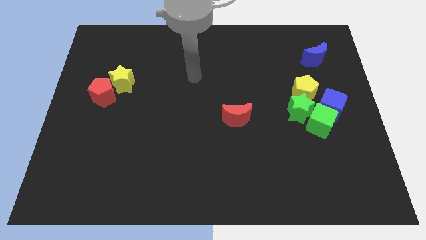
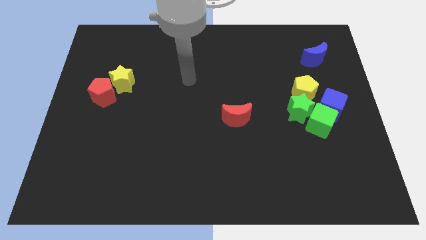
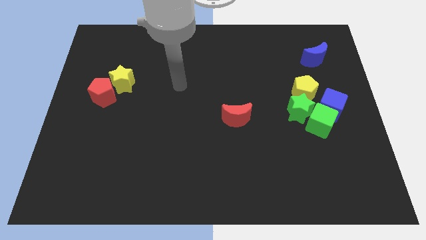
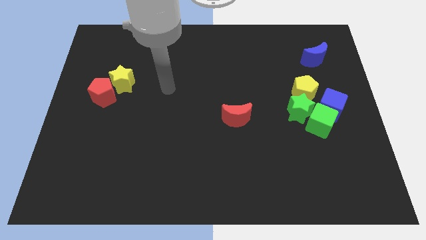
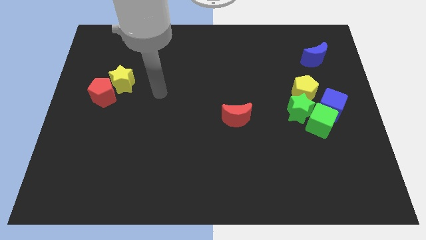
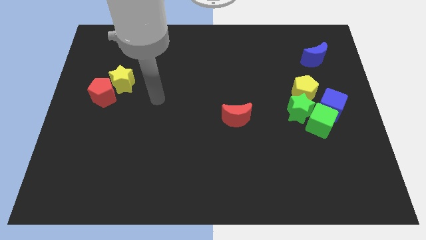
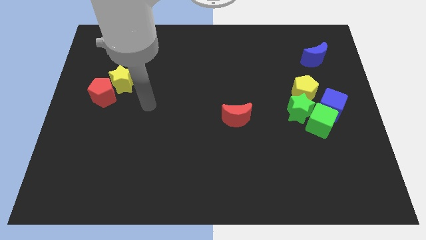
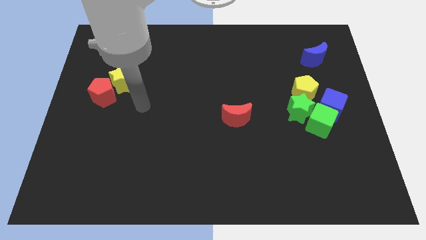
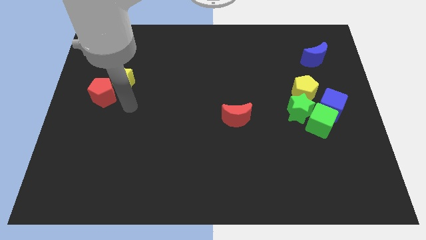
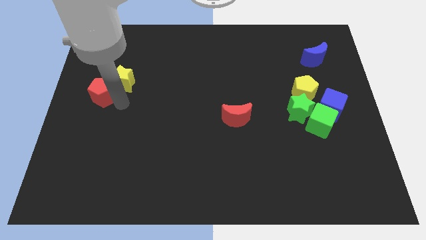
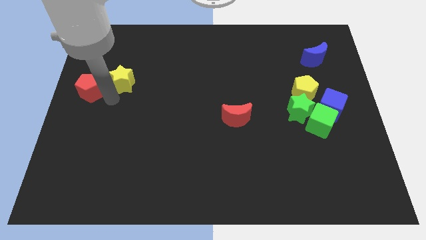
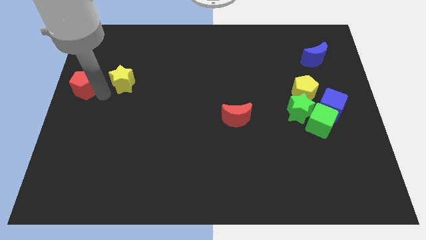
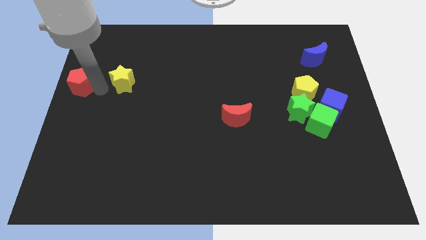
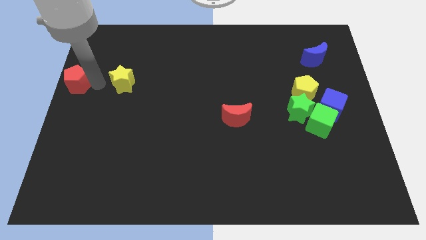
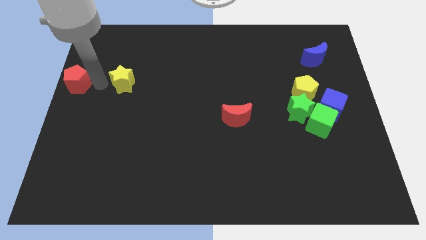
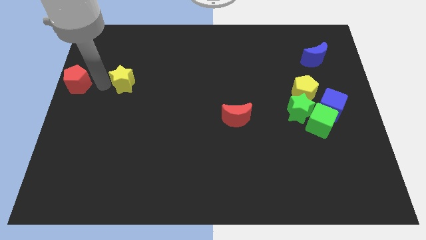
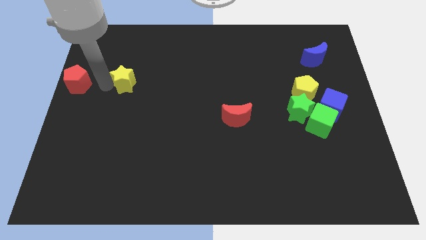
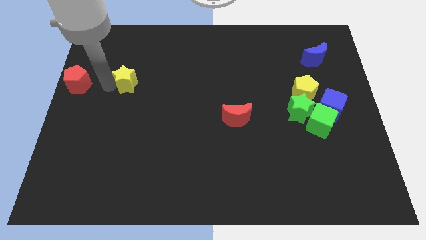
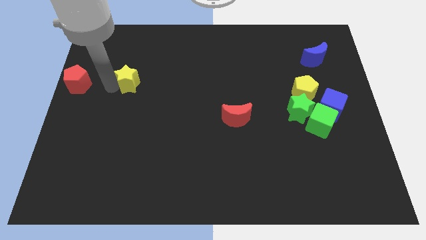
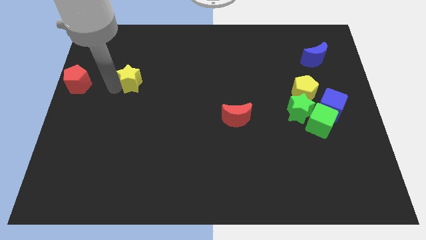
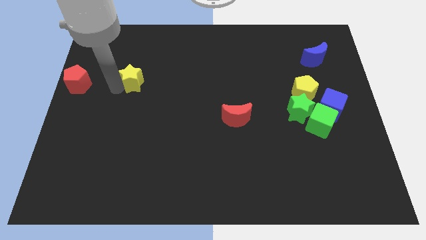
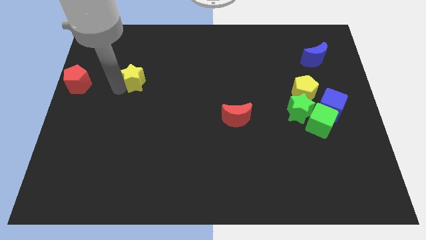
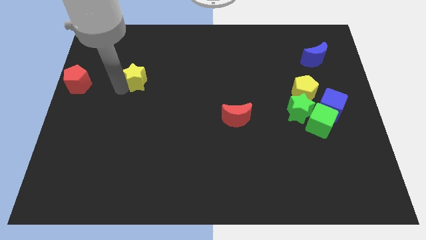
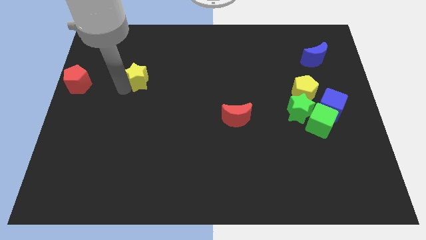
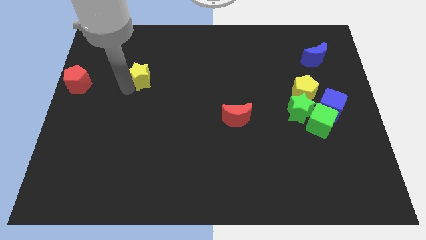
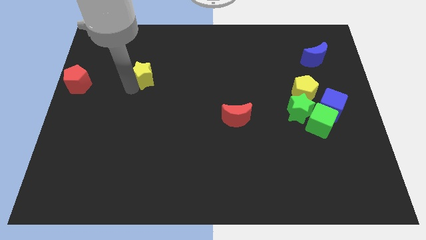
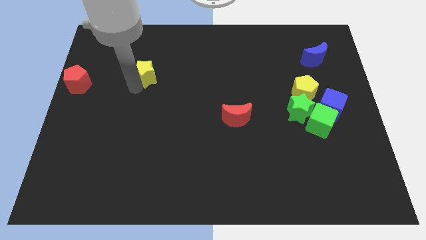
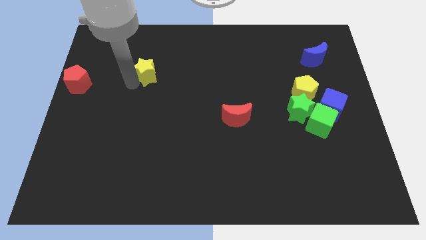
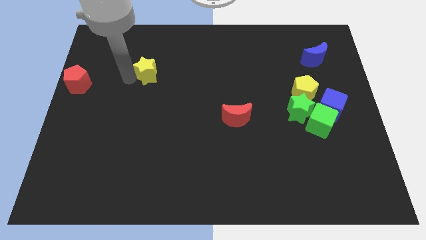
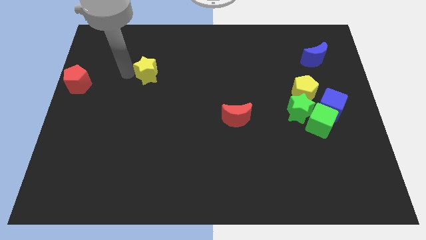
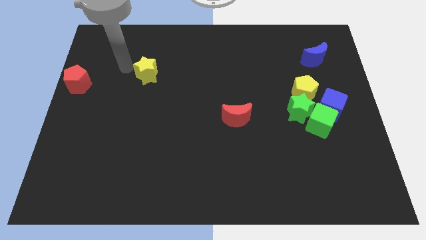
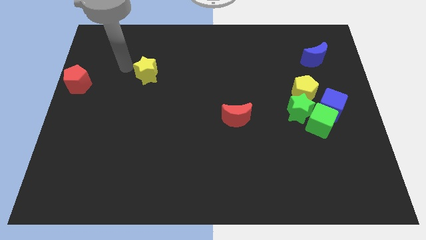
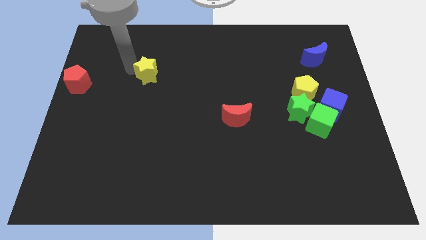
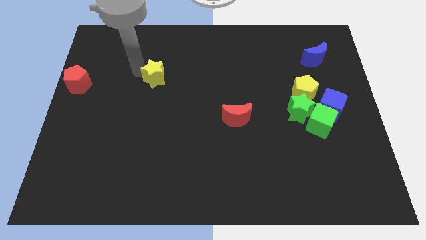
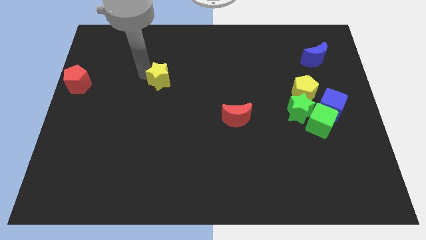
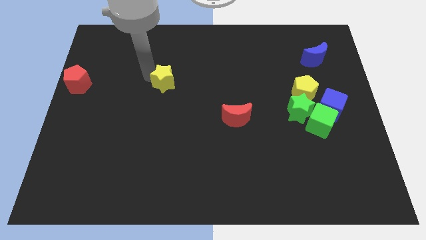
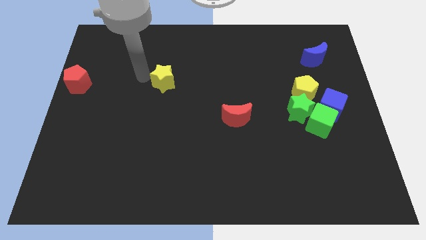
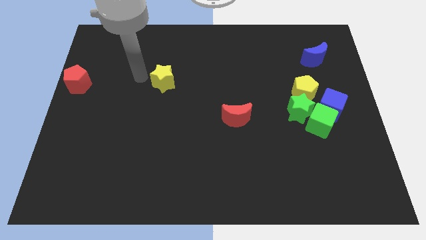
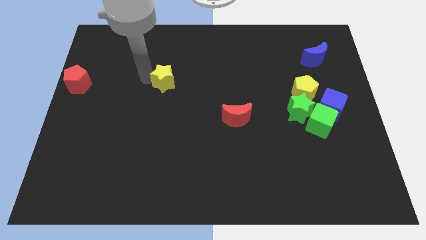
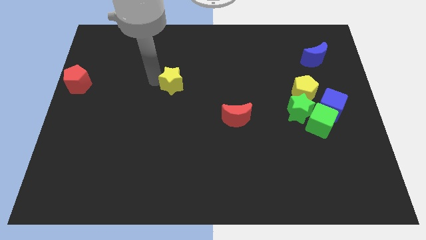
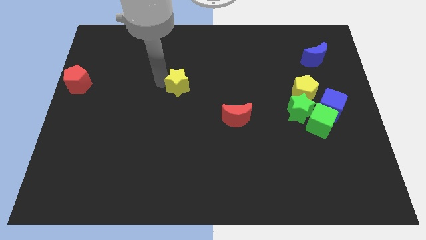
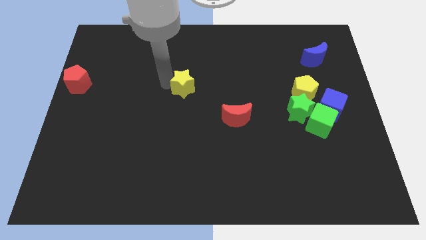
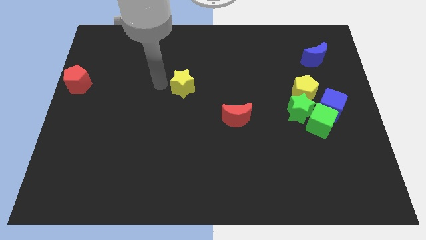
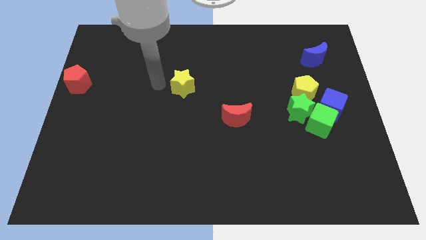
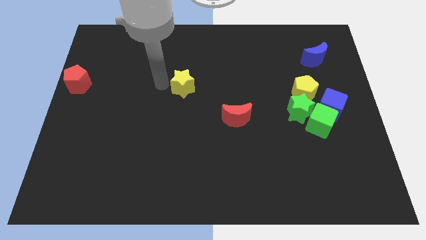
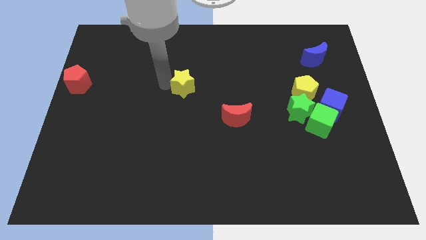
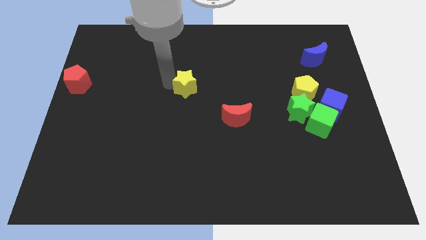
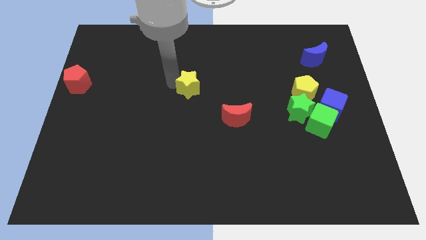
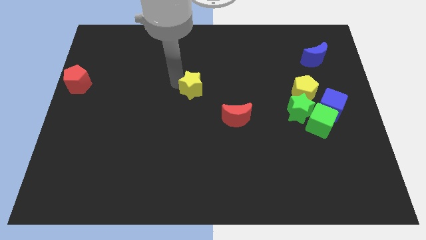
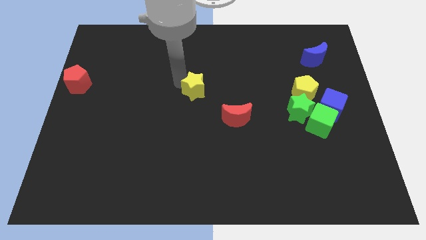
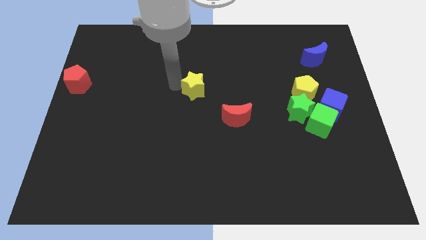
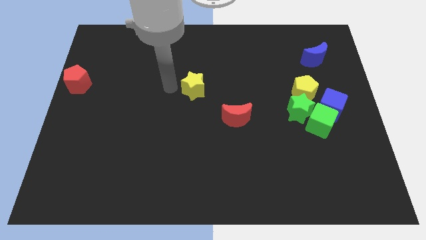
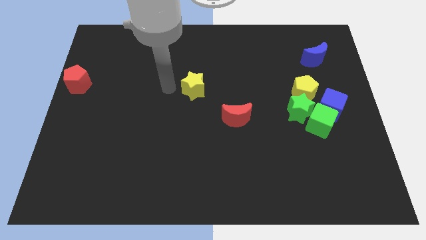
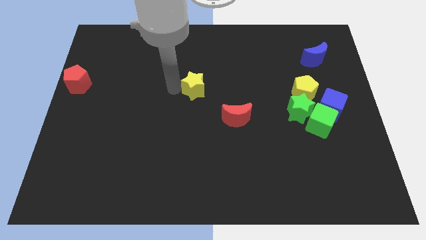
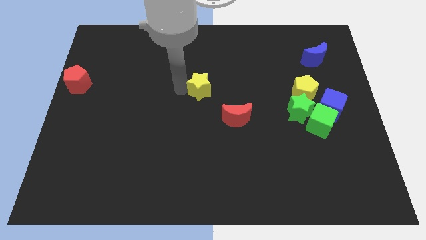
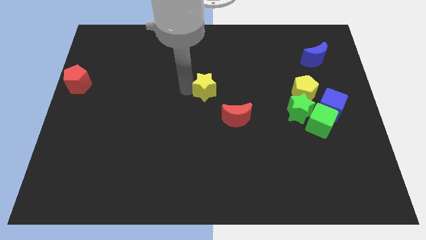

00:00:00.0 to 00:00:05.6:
slide the yellow star to the right

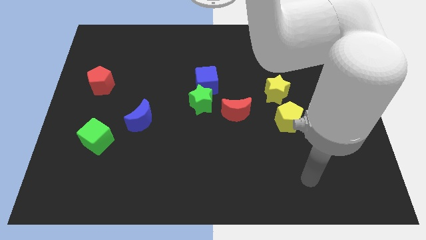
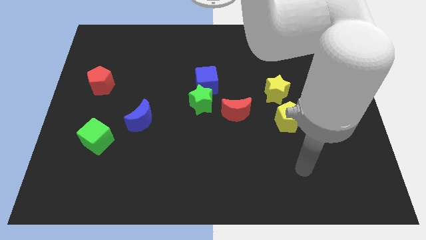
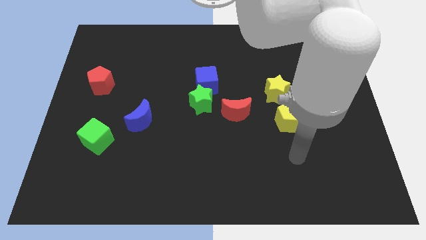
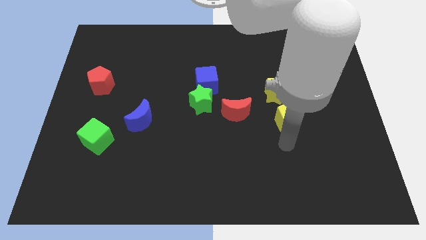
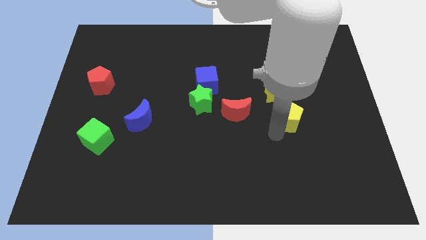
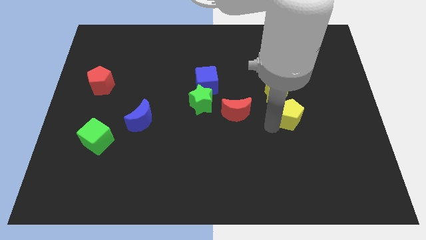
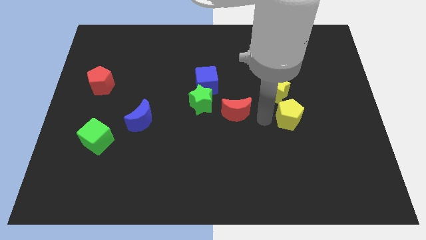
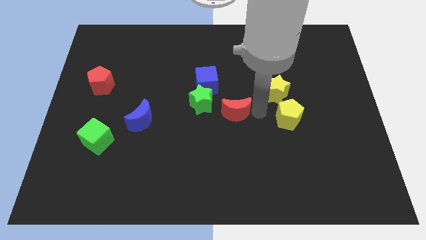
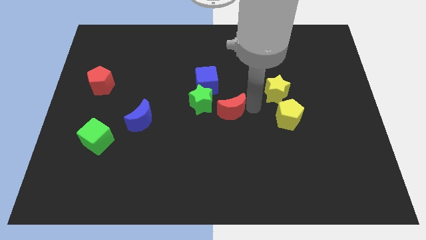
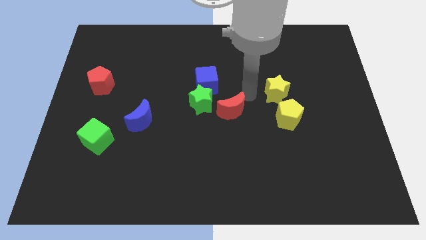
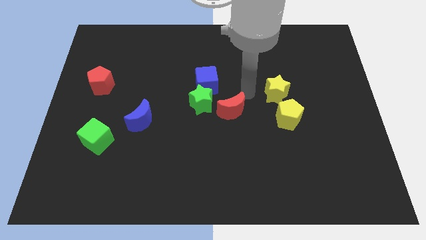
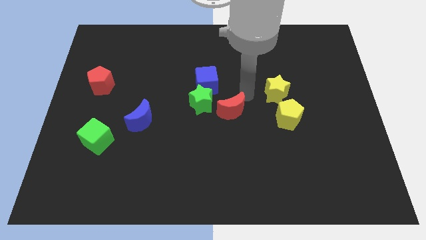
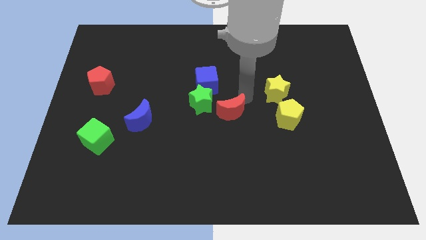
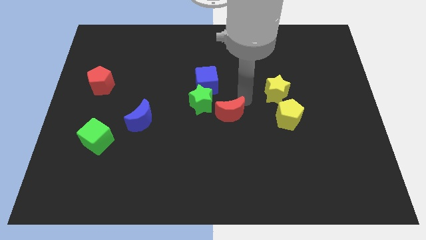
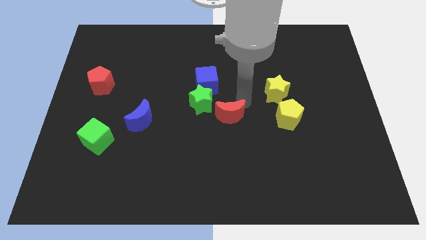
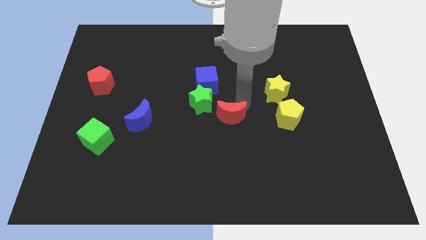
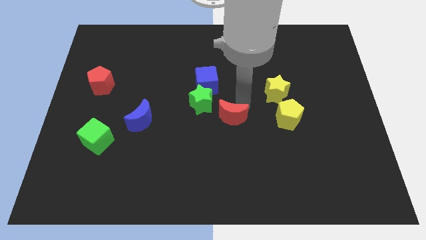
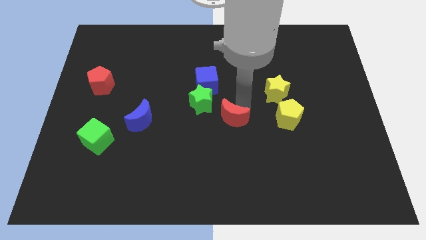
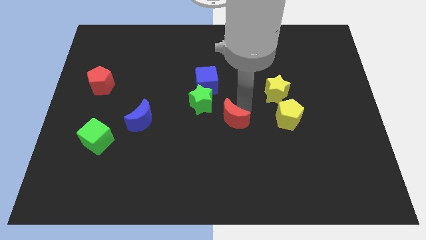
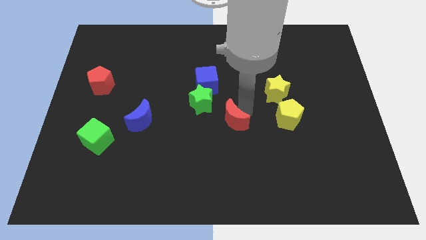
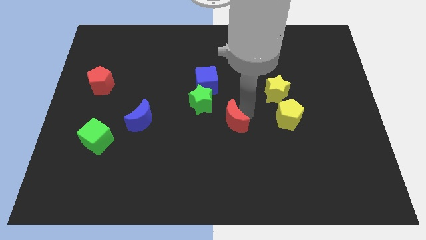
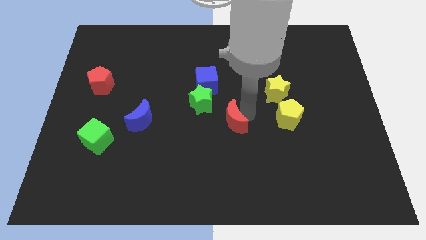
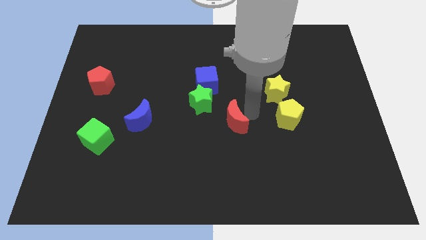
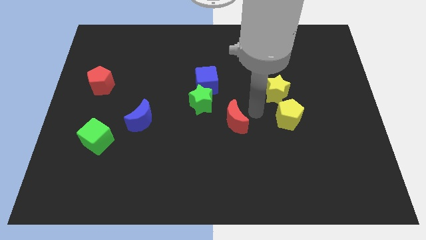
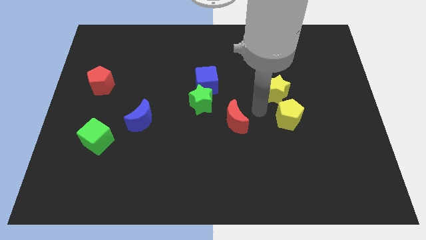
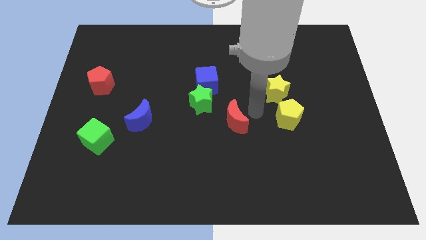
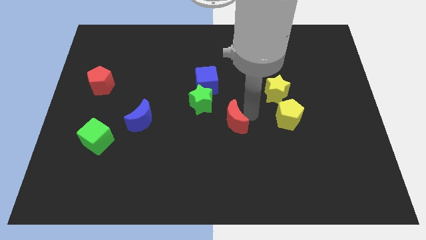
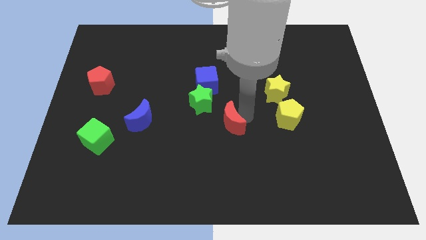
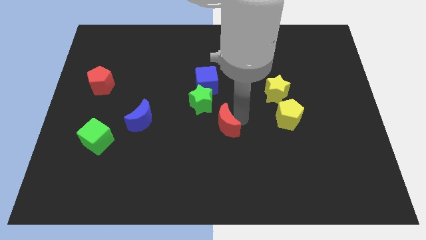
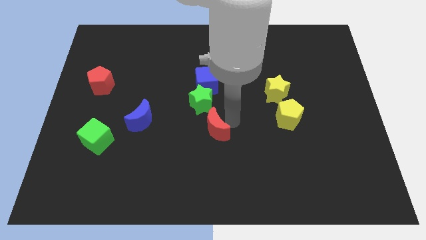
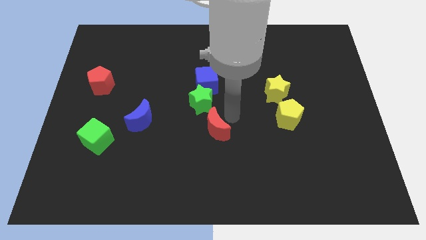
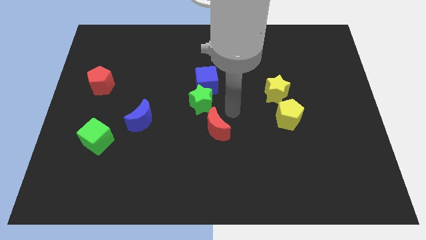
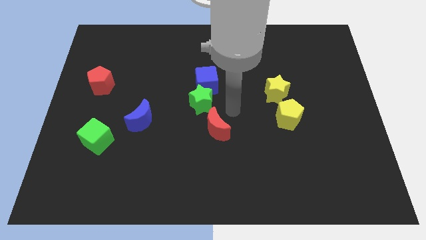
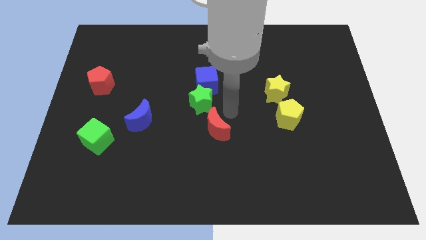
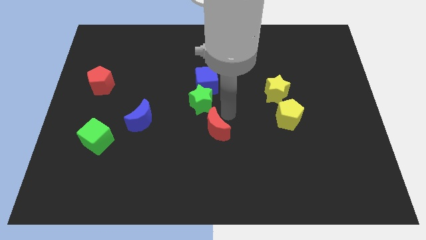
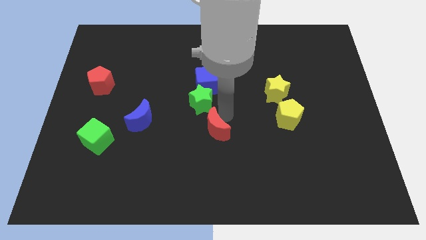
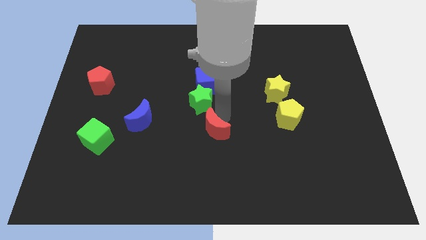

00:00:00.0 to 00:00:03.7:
move the red moon down and to the left diagonally slightly
